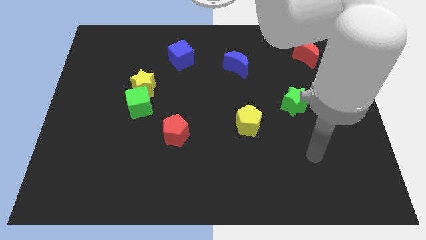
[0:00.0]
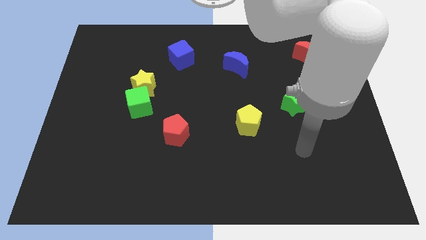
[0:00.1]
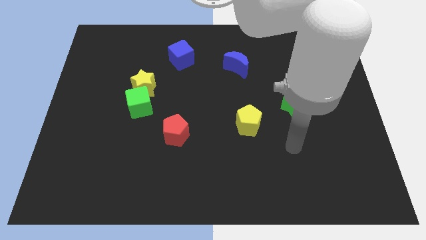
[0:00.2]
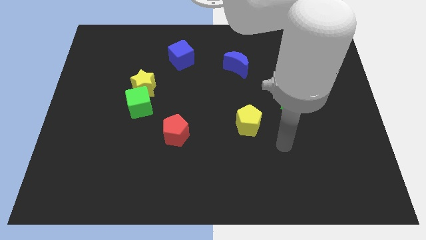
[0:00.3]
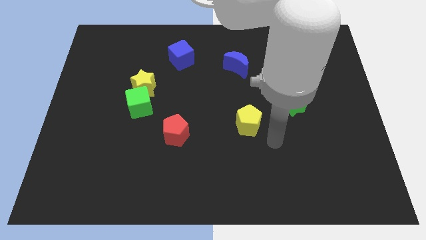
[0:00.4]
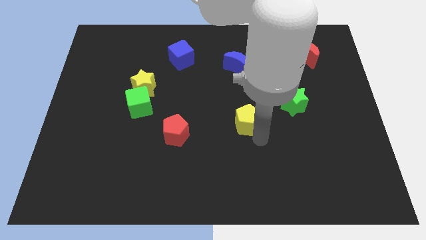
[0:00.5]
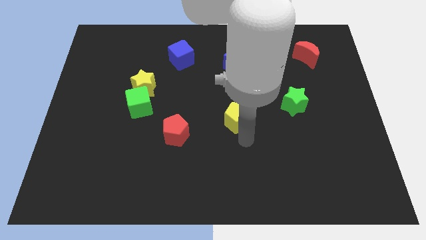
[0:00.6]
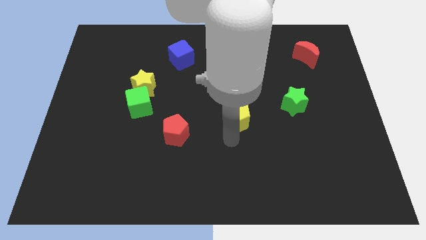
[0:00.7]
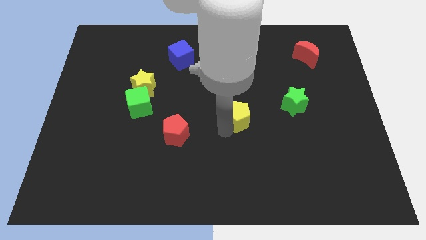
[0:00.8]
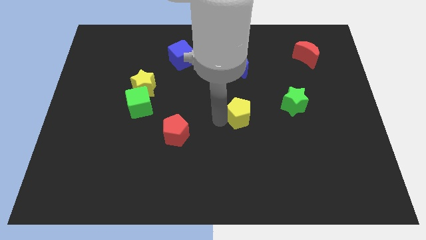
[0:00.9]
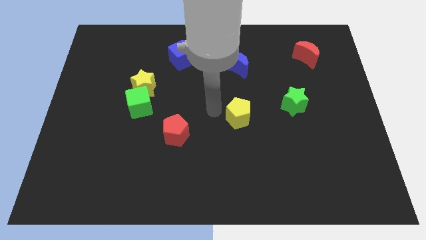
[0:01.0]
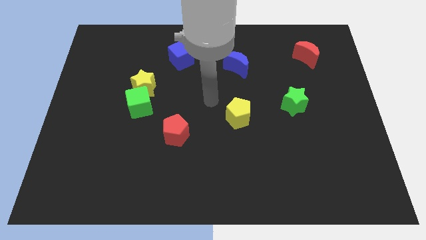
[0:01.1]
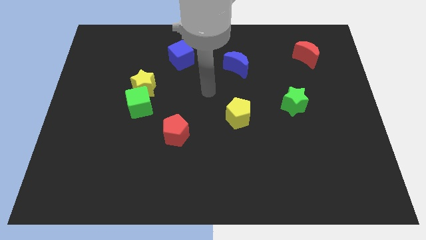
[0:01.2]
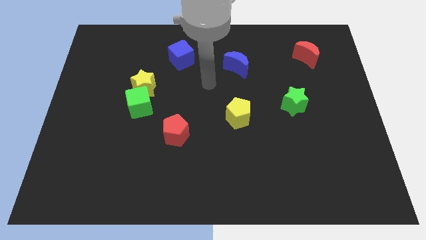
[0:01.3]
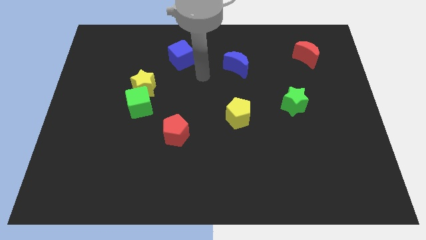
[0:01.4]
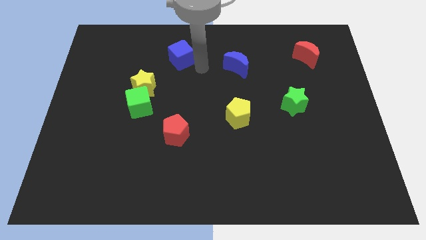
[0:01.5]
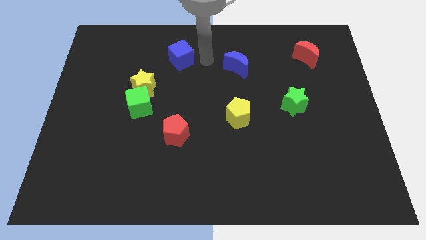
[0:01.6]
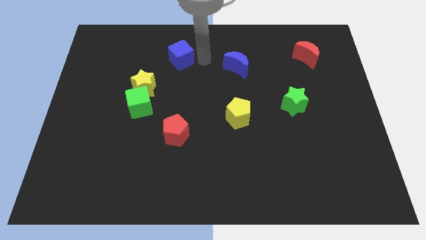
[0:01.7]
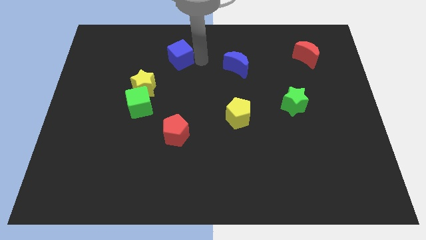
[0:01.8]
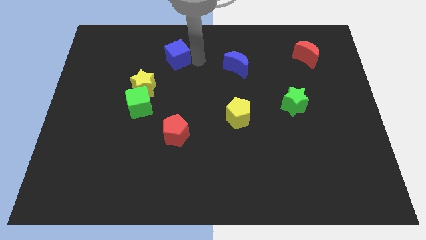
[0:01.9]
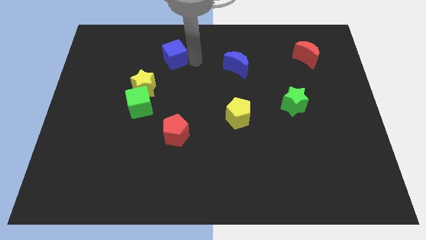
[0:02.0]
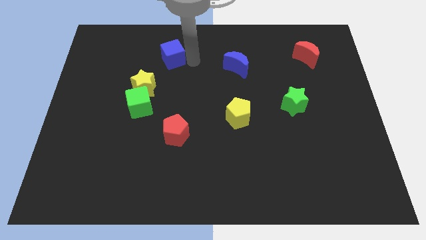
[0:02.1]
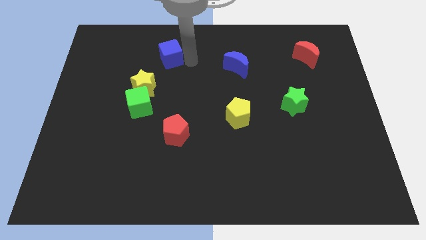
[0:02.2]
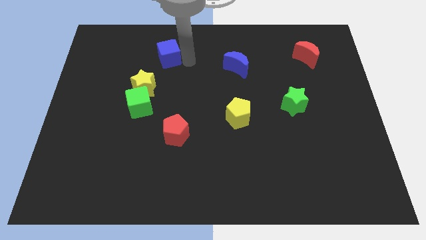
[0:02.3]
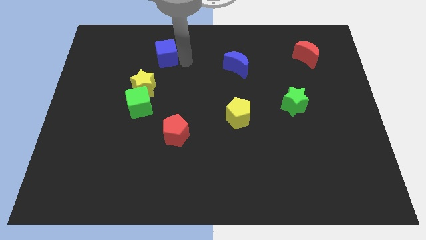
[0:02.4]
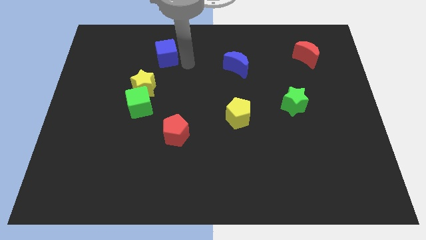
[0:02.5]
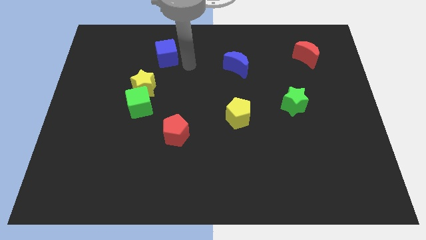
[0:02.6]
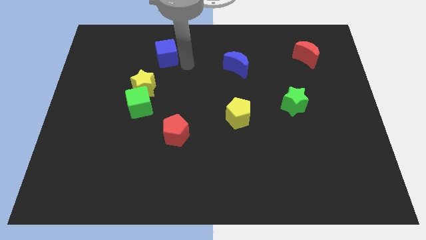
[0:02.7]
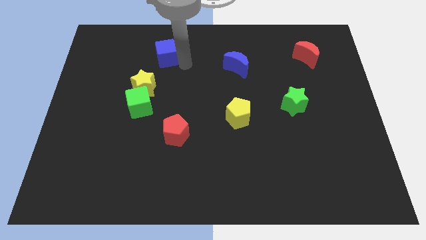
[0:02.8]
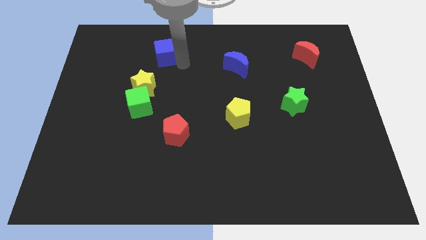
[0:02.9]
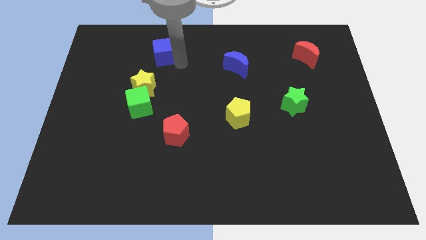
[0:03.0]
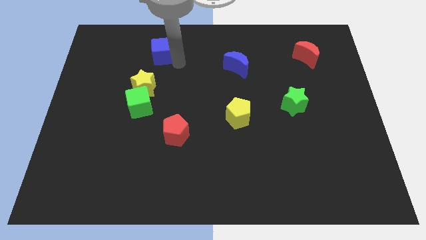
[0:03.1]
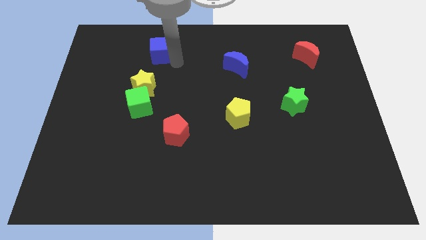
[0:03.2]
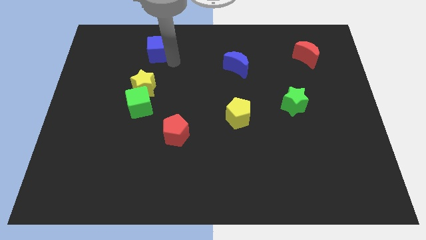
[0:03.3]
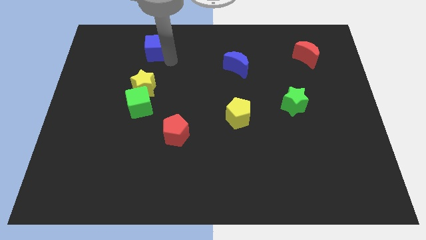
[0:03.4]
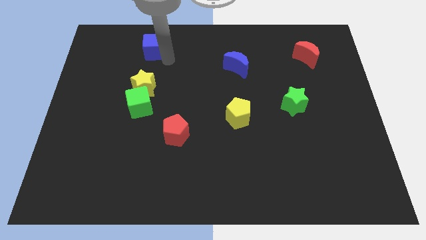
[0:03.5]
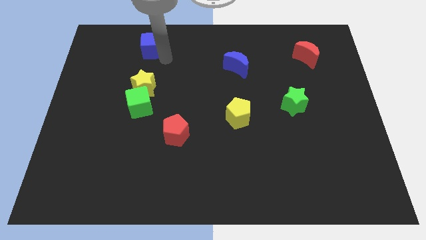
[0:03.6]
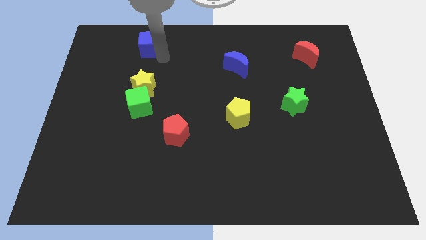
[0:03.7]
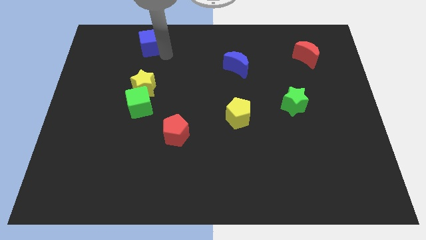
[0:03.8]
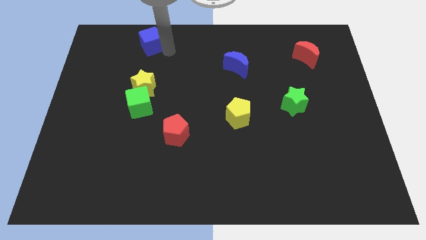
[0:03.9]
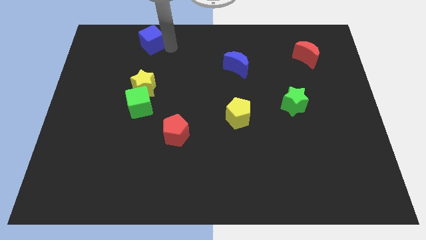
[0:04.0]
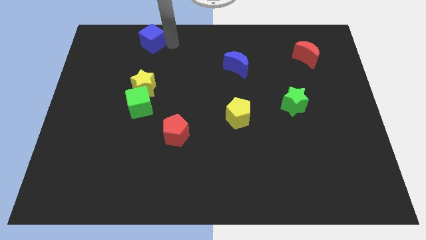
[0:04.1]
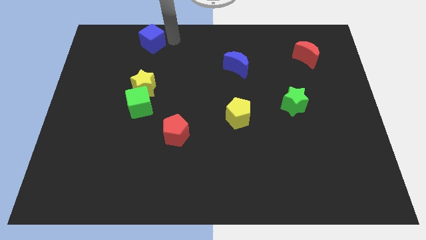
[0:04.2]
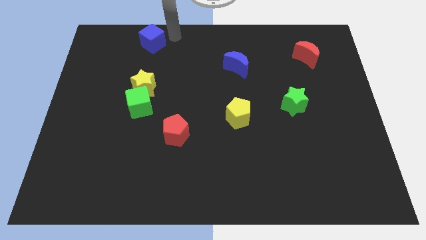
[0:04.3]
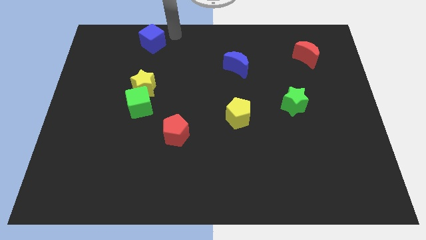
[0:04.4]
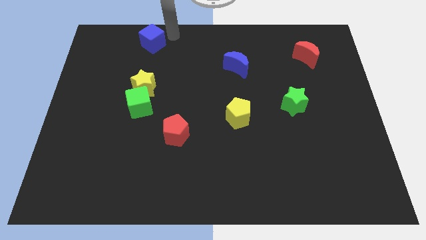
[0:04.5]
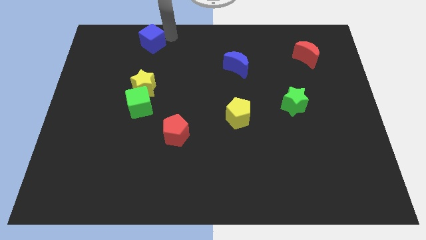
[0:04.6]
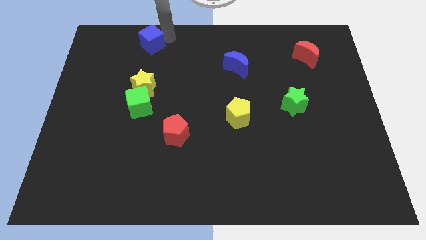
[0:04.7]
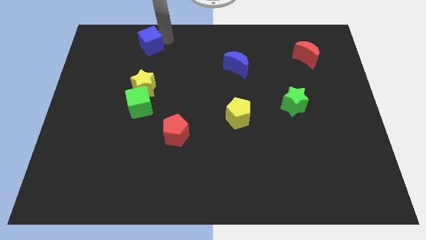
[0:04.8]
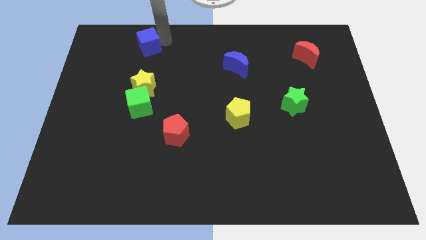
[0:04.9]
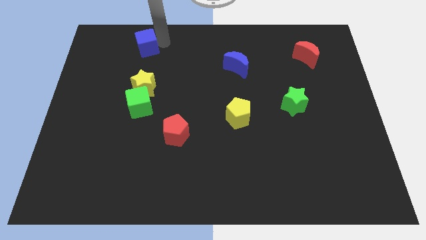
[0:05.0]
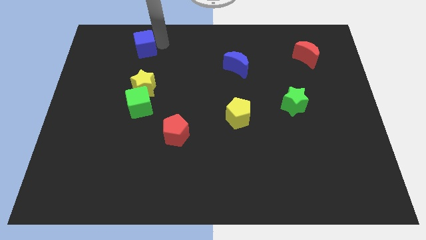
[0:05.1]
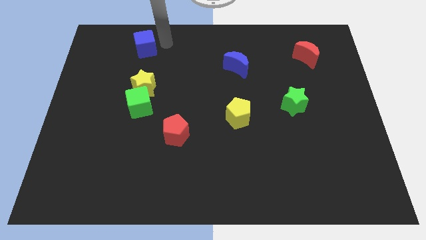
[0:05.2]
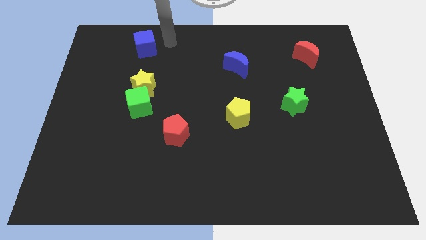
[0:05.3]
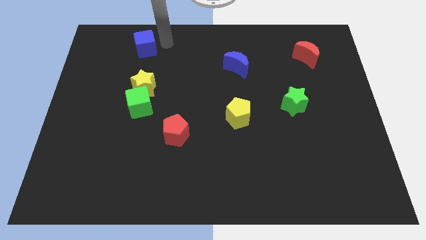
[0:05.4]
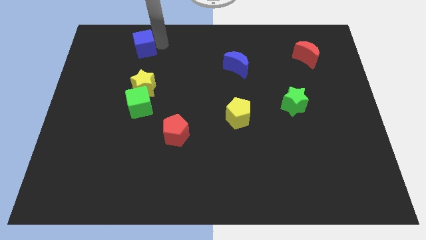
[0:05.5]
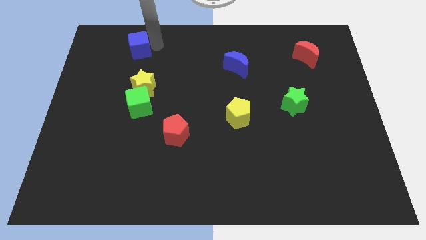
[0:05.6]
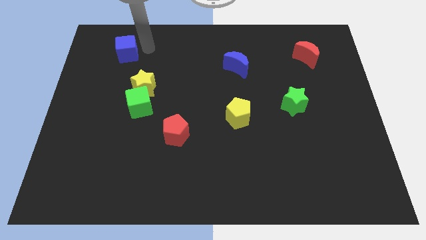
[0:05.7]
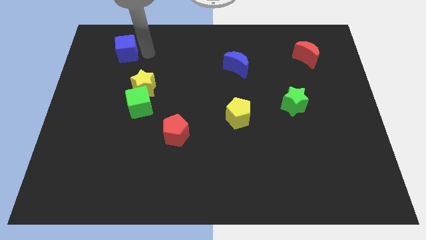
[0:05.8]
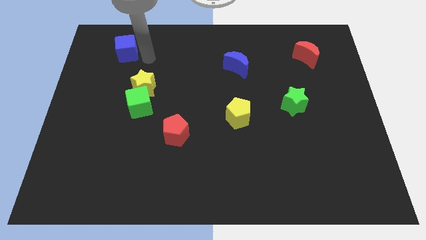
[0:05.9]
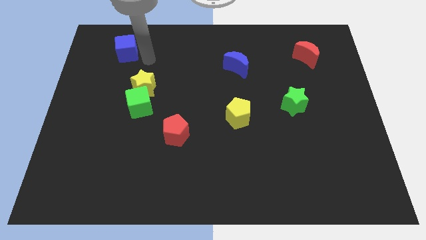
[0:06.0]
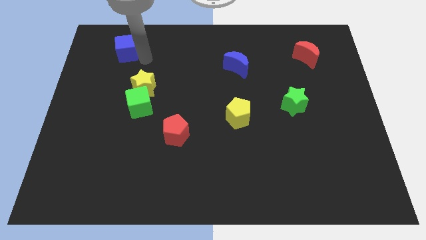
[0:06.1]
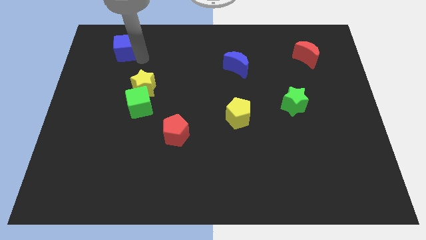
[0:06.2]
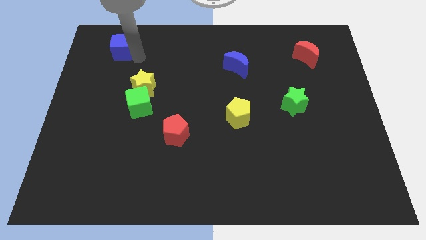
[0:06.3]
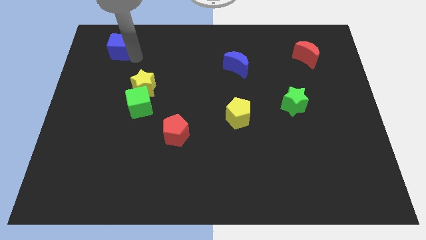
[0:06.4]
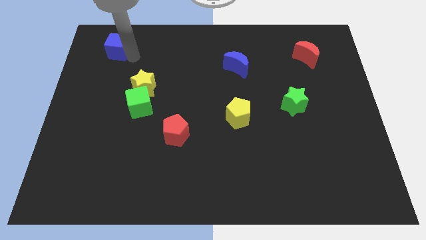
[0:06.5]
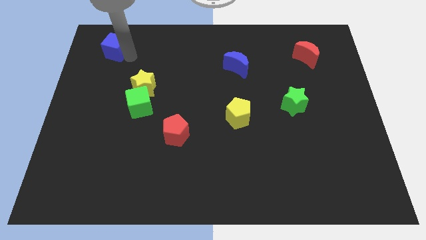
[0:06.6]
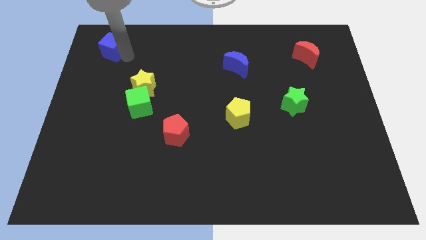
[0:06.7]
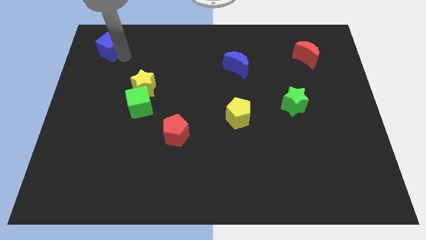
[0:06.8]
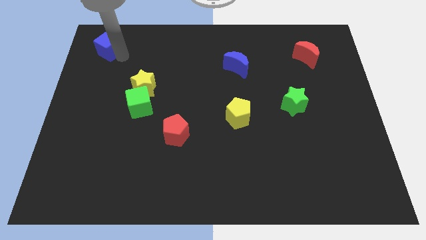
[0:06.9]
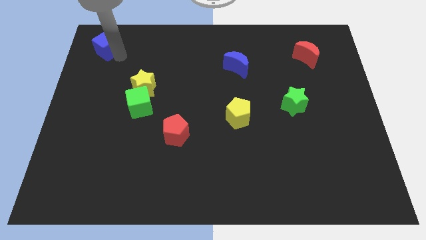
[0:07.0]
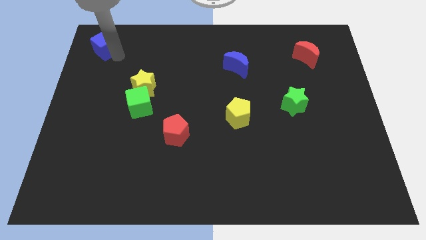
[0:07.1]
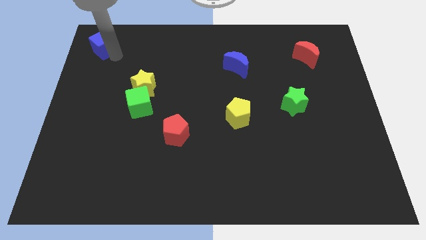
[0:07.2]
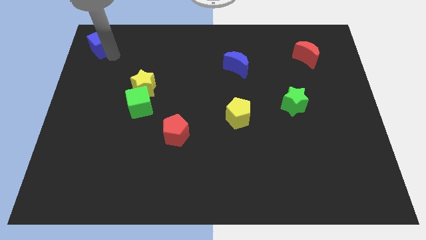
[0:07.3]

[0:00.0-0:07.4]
put the blue cube to the top left corner
